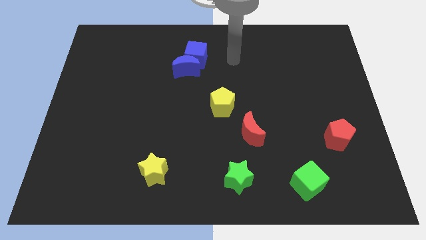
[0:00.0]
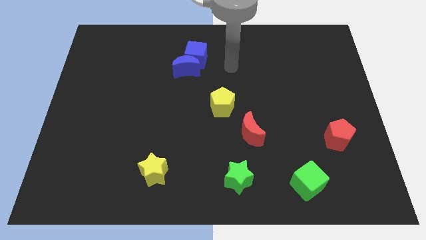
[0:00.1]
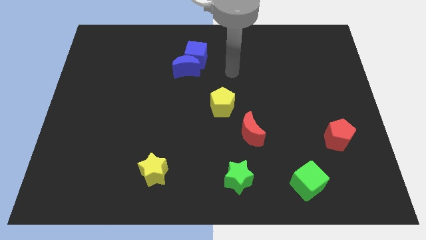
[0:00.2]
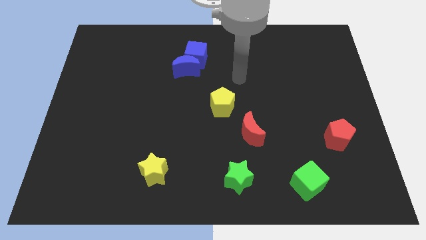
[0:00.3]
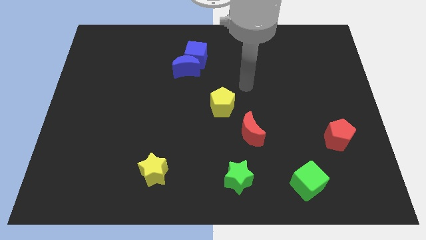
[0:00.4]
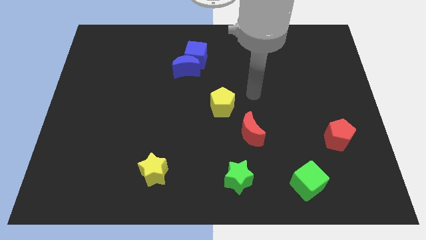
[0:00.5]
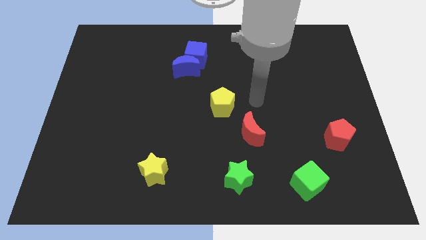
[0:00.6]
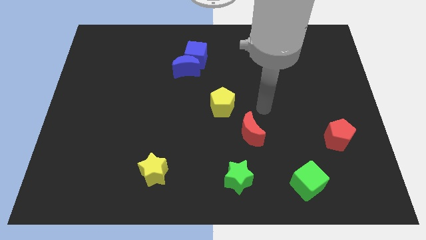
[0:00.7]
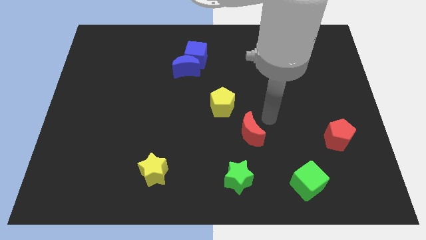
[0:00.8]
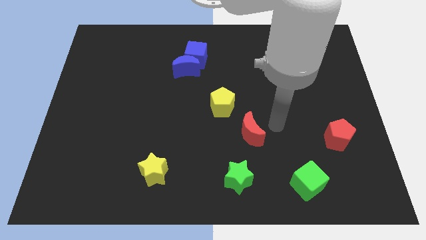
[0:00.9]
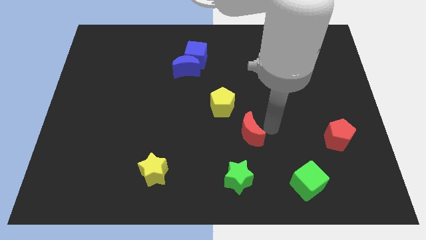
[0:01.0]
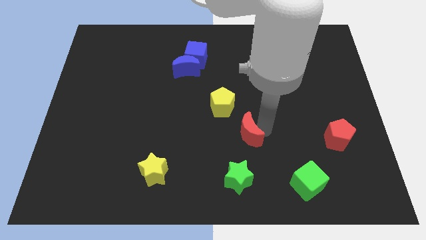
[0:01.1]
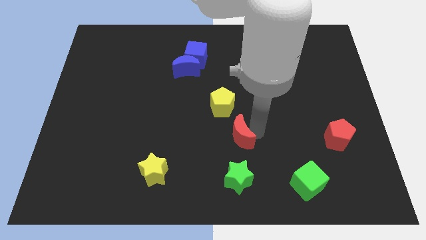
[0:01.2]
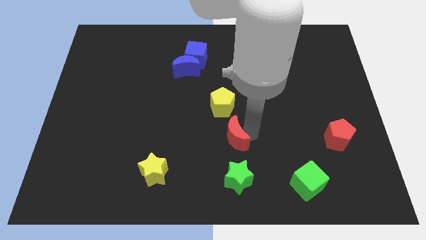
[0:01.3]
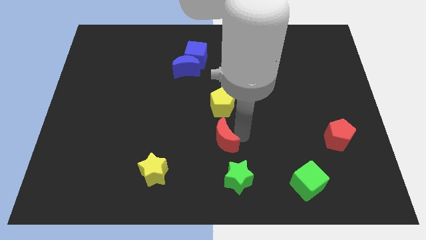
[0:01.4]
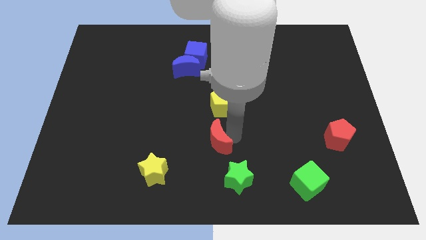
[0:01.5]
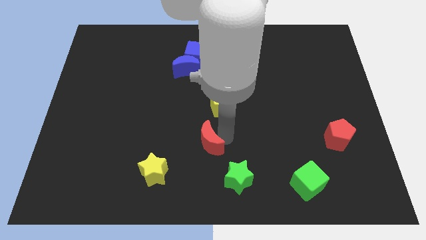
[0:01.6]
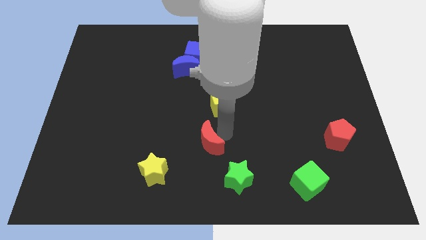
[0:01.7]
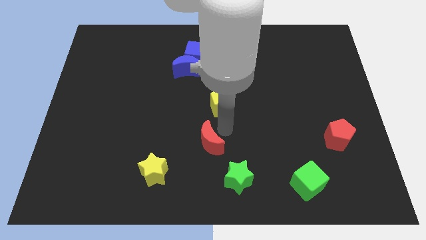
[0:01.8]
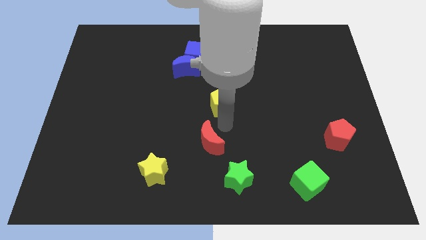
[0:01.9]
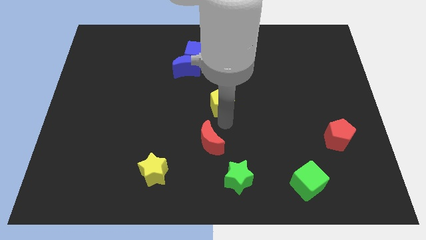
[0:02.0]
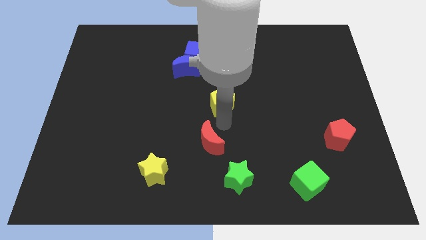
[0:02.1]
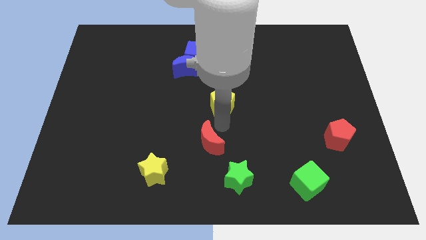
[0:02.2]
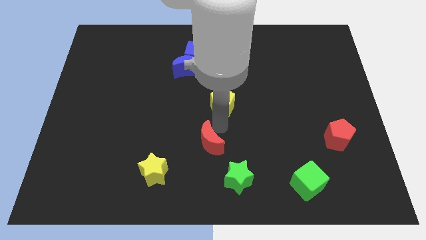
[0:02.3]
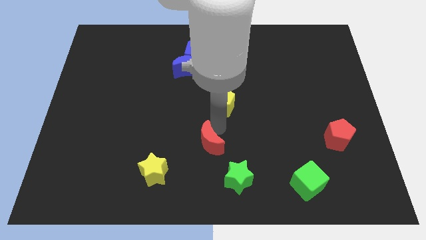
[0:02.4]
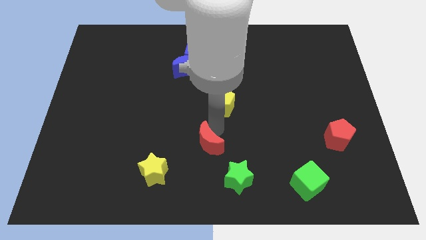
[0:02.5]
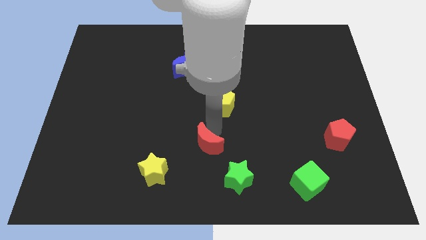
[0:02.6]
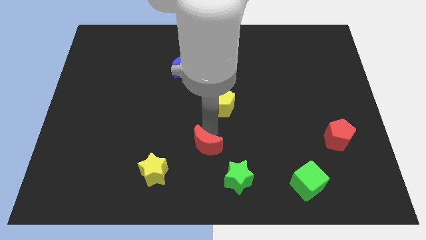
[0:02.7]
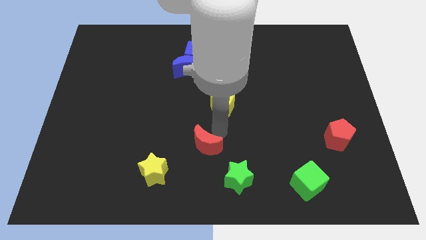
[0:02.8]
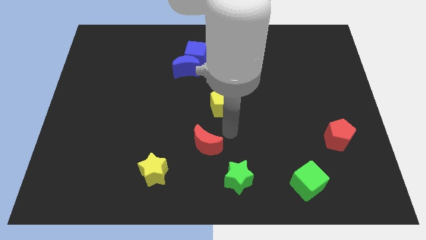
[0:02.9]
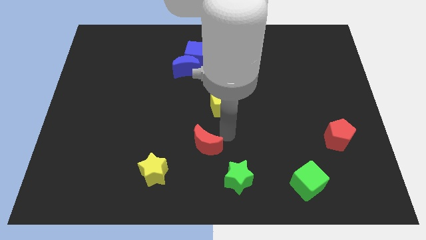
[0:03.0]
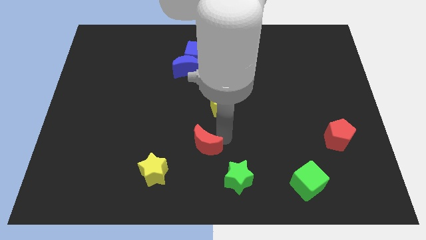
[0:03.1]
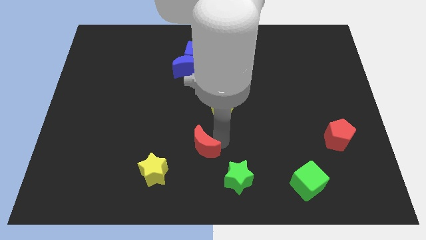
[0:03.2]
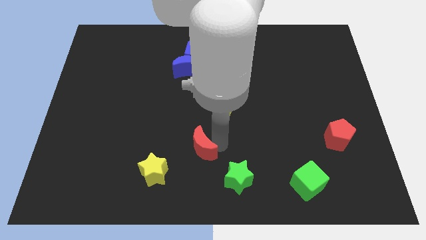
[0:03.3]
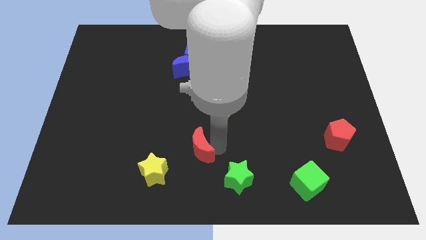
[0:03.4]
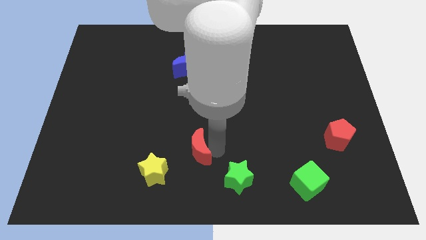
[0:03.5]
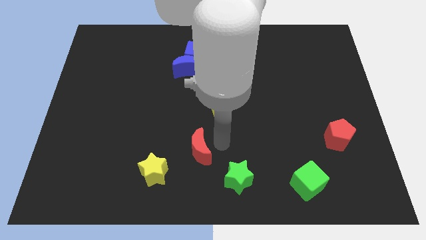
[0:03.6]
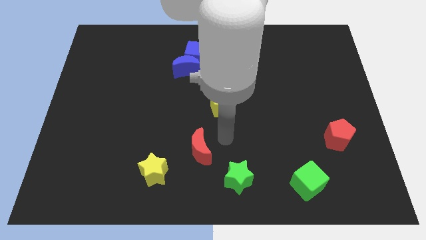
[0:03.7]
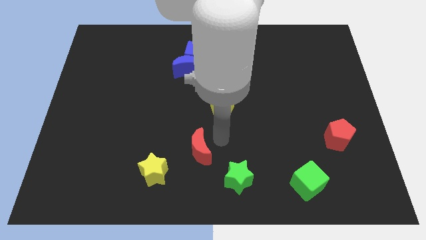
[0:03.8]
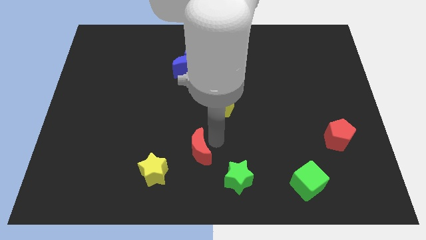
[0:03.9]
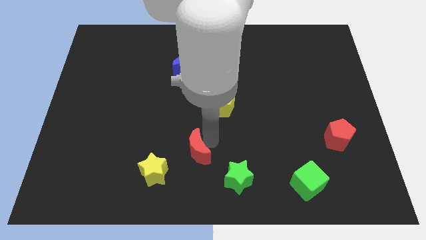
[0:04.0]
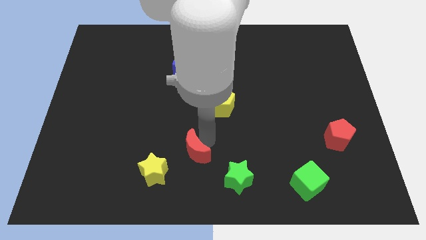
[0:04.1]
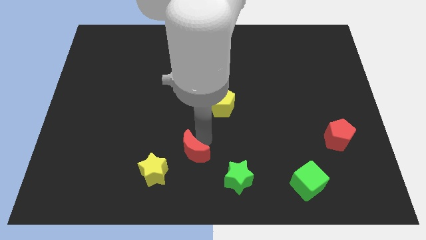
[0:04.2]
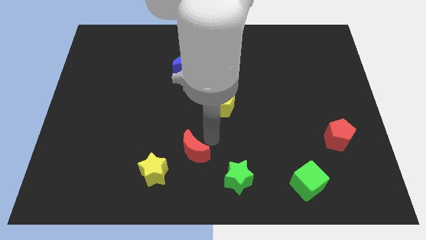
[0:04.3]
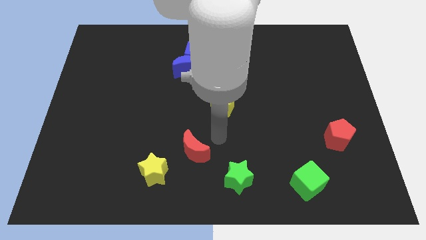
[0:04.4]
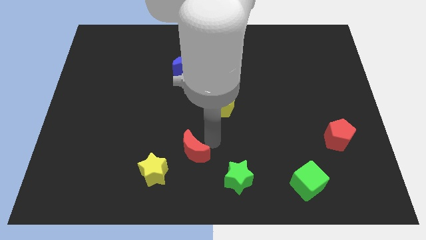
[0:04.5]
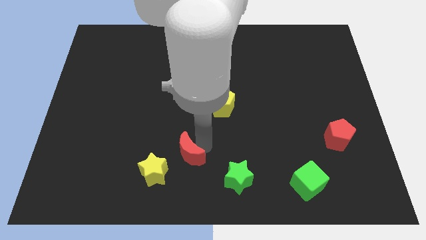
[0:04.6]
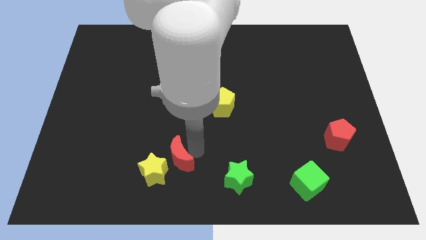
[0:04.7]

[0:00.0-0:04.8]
push the red moon next to the yellow star

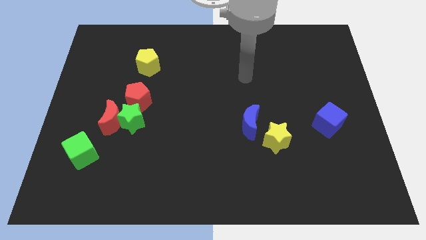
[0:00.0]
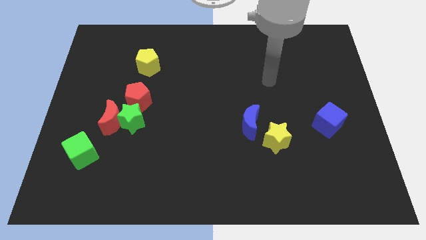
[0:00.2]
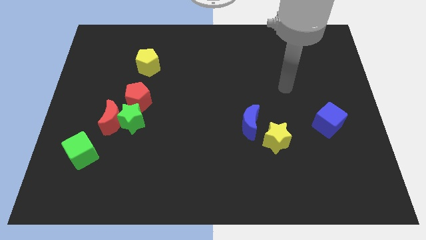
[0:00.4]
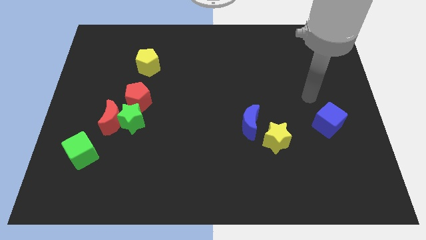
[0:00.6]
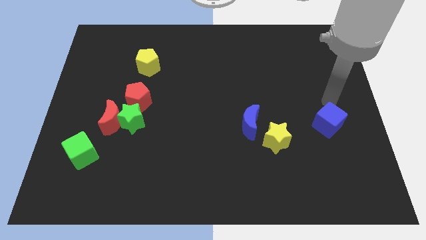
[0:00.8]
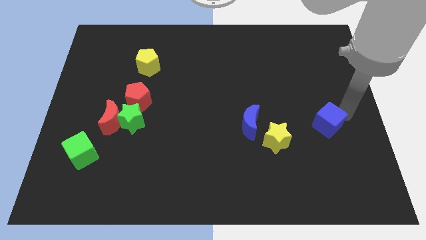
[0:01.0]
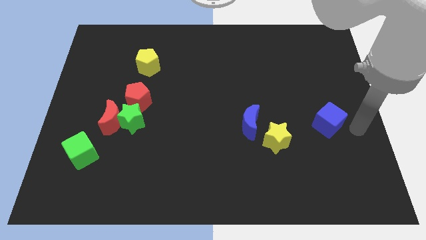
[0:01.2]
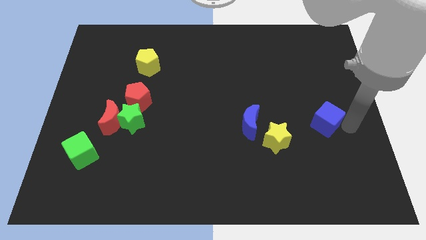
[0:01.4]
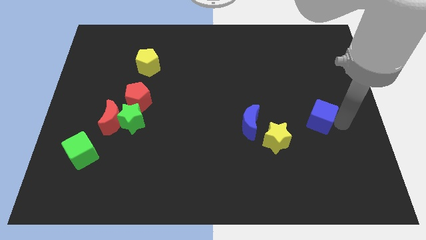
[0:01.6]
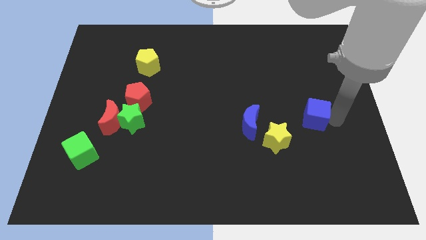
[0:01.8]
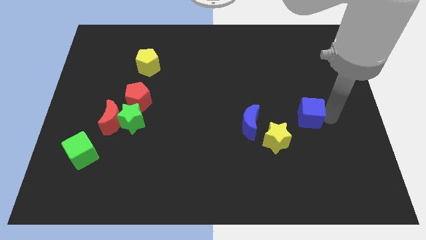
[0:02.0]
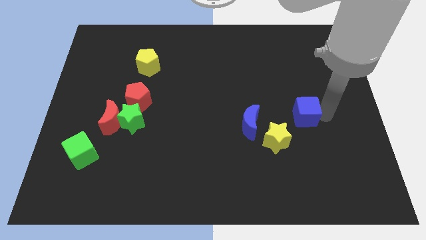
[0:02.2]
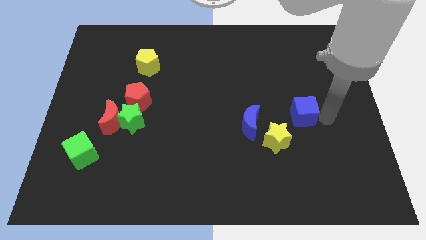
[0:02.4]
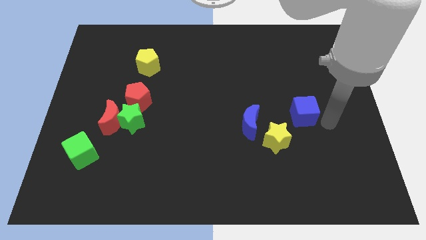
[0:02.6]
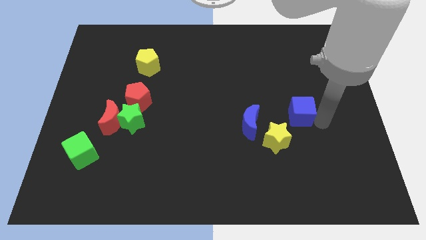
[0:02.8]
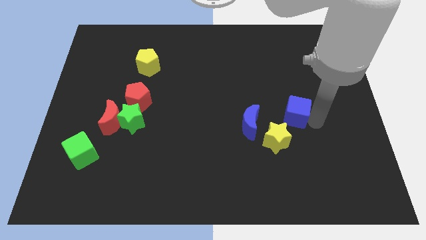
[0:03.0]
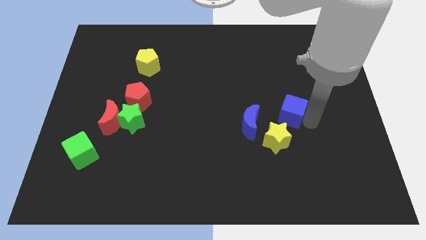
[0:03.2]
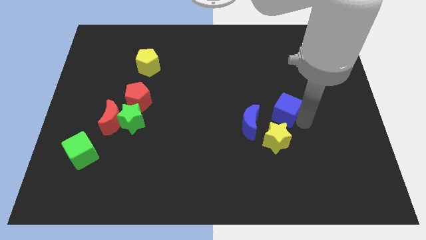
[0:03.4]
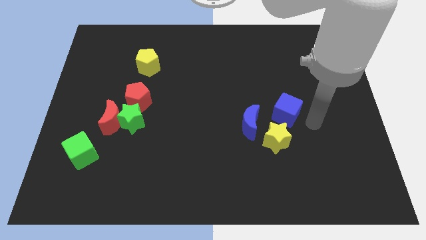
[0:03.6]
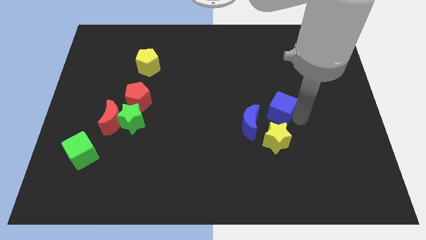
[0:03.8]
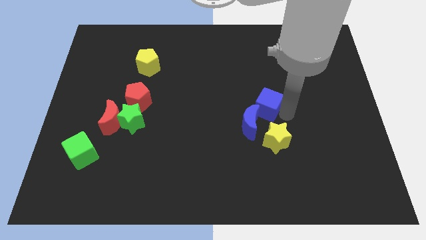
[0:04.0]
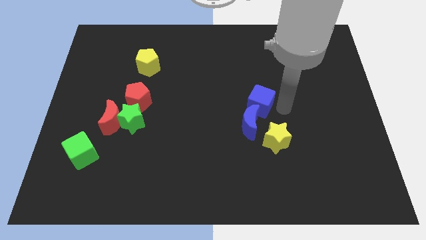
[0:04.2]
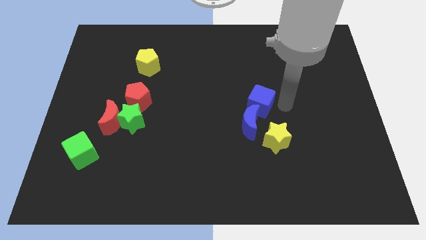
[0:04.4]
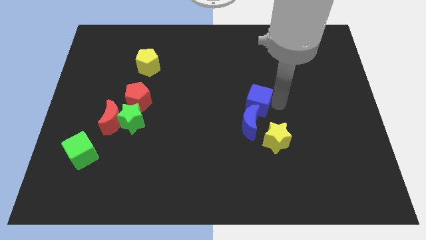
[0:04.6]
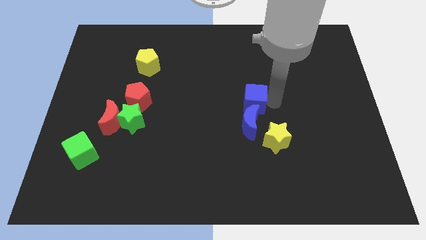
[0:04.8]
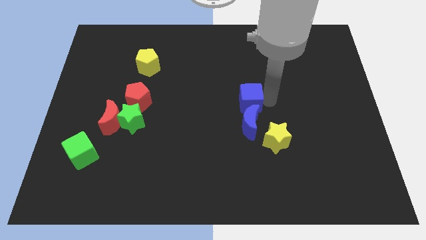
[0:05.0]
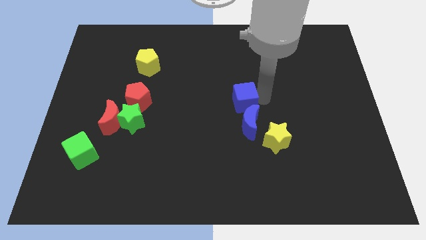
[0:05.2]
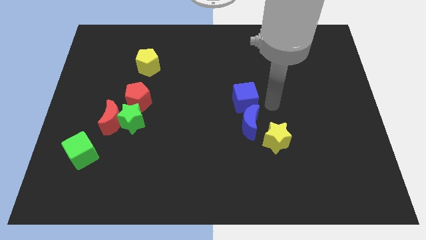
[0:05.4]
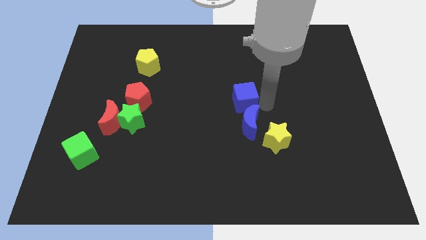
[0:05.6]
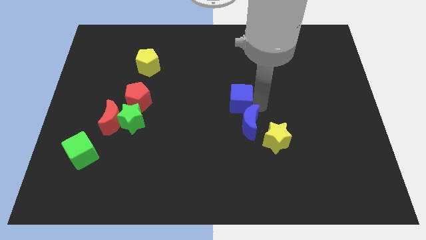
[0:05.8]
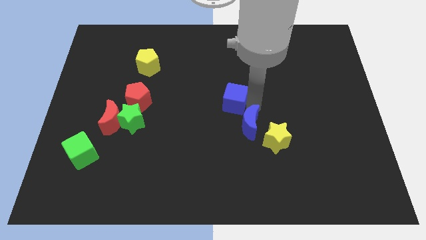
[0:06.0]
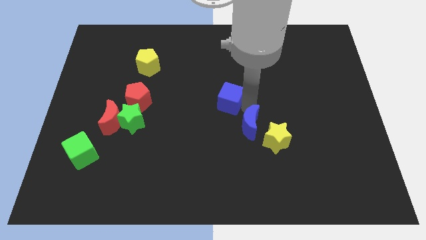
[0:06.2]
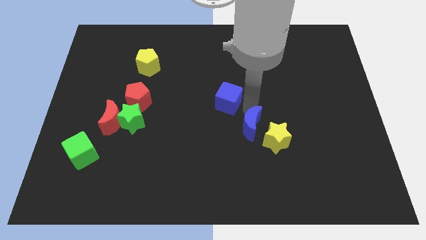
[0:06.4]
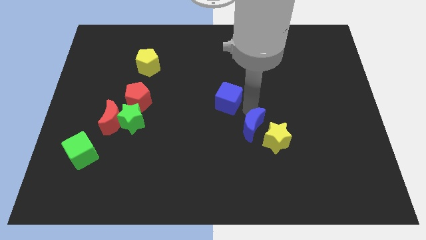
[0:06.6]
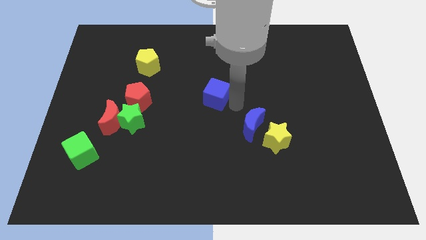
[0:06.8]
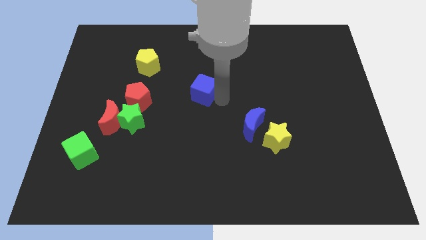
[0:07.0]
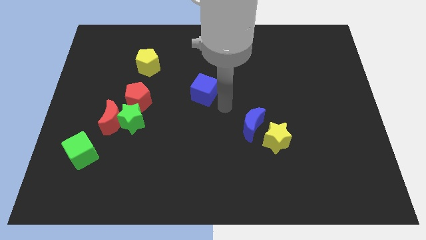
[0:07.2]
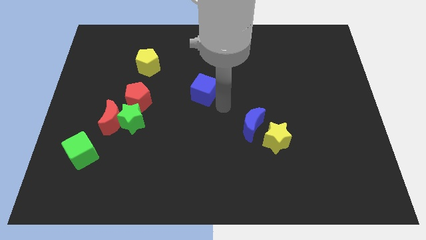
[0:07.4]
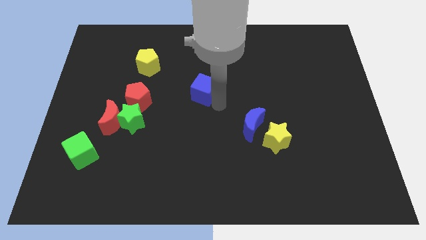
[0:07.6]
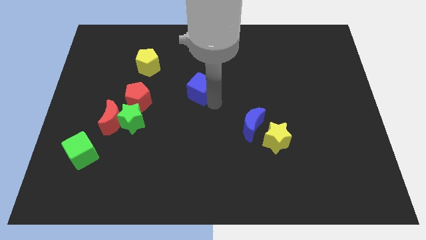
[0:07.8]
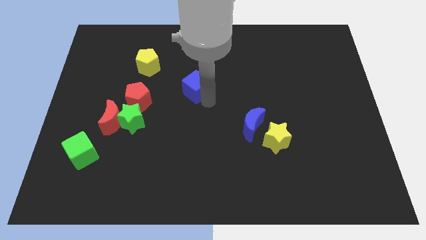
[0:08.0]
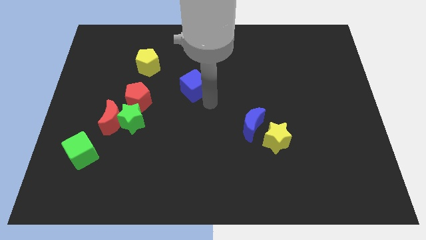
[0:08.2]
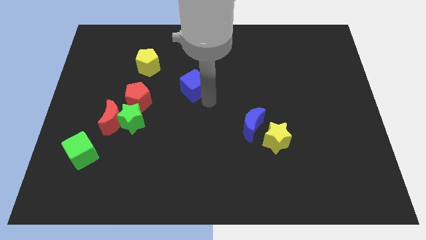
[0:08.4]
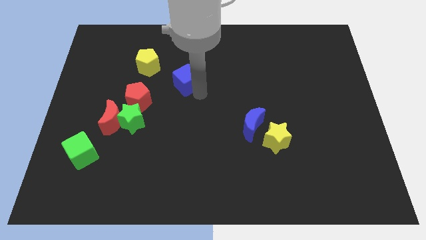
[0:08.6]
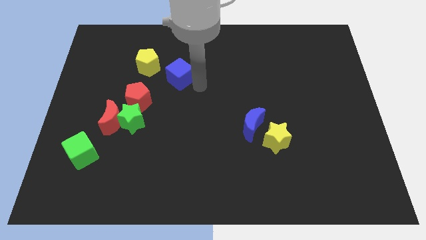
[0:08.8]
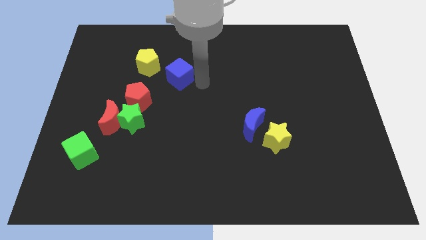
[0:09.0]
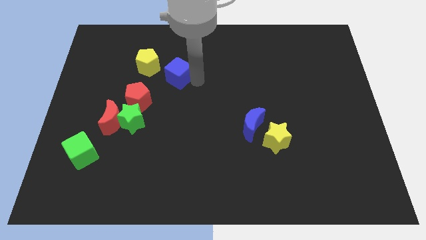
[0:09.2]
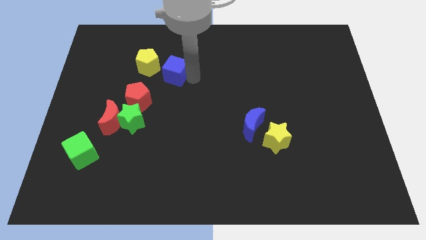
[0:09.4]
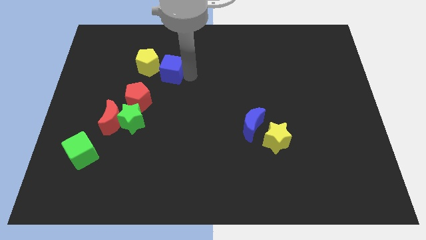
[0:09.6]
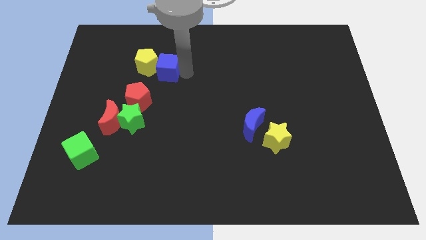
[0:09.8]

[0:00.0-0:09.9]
move the blue cube close to the yellow pentagon
